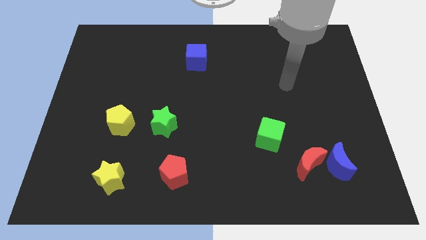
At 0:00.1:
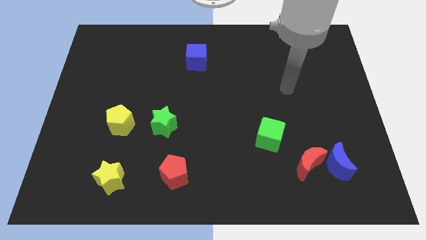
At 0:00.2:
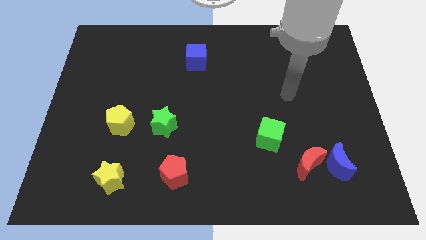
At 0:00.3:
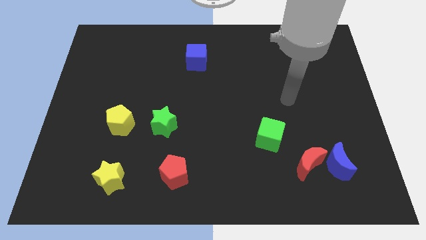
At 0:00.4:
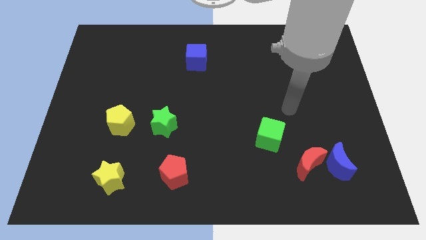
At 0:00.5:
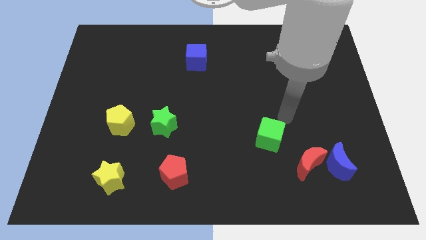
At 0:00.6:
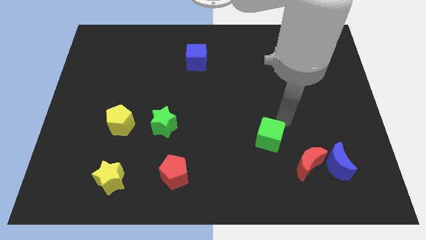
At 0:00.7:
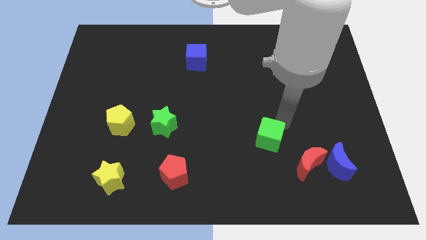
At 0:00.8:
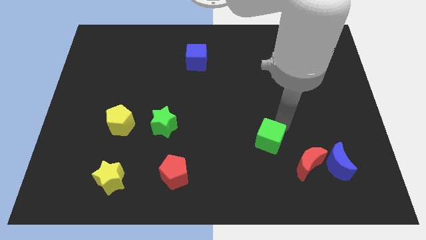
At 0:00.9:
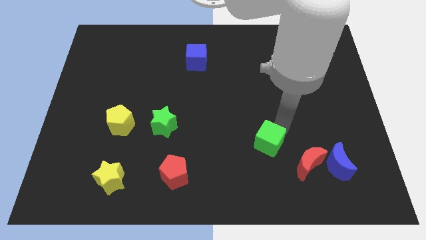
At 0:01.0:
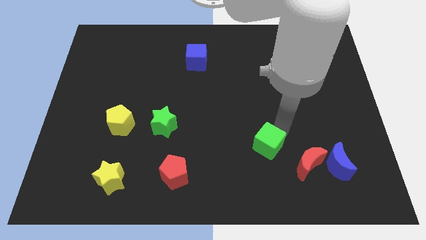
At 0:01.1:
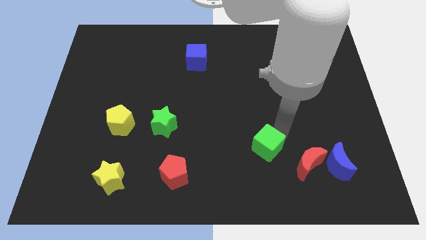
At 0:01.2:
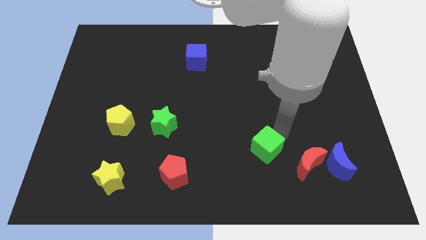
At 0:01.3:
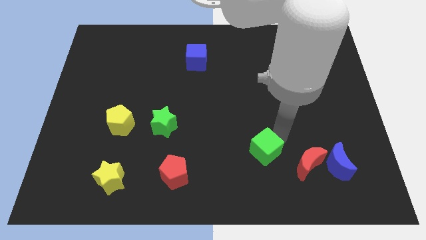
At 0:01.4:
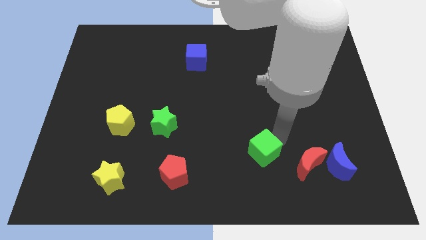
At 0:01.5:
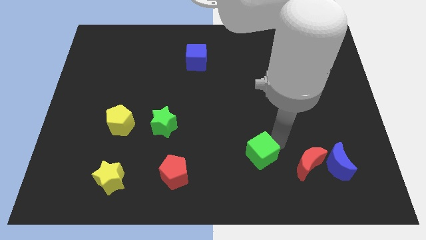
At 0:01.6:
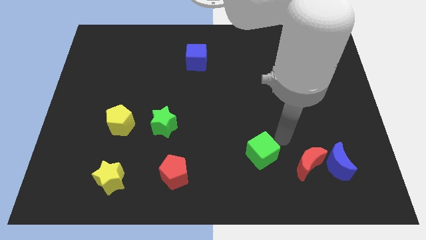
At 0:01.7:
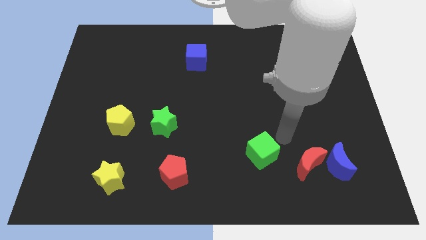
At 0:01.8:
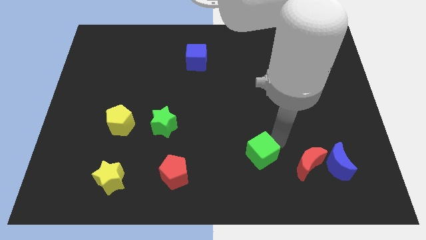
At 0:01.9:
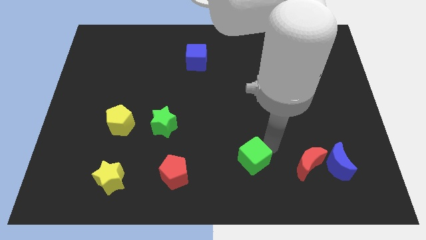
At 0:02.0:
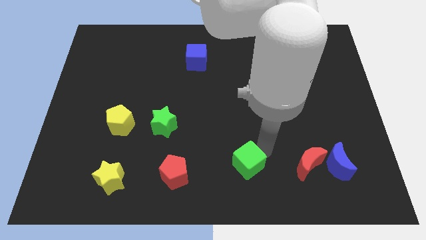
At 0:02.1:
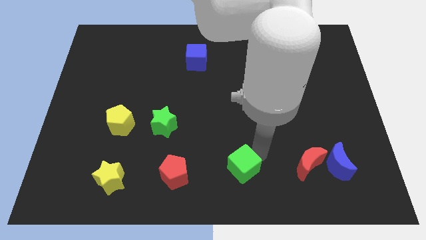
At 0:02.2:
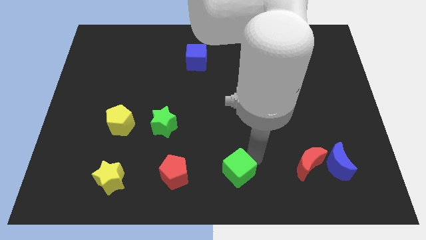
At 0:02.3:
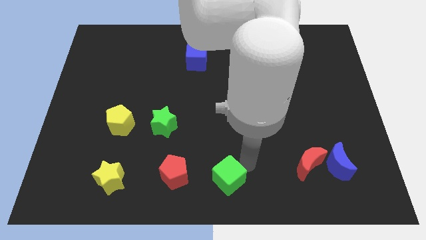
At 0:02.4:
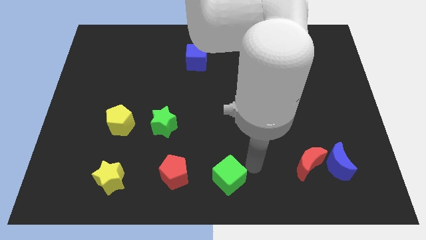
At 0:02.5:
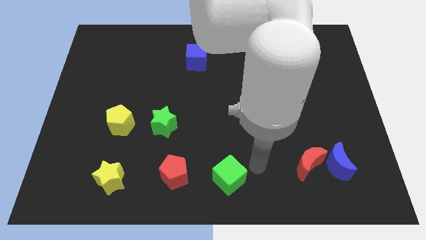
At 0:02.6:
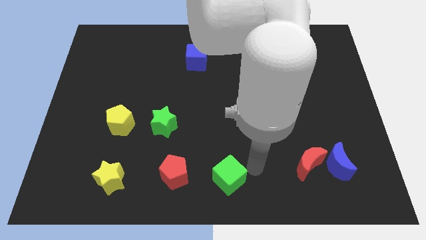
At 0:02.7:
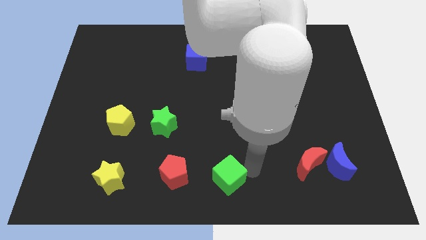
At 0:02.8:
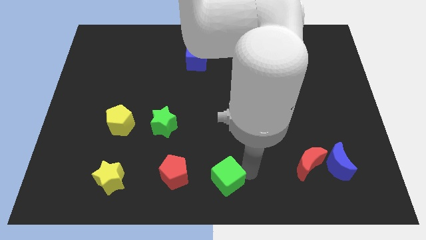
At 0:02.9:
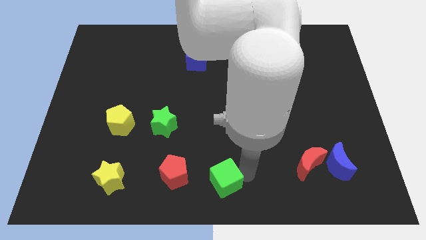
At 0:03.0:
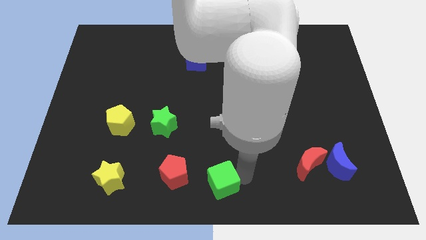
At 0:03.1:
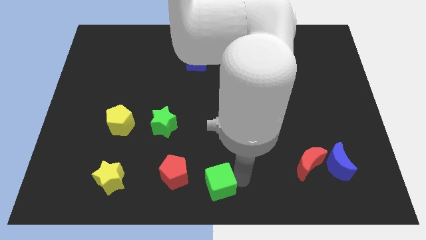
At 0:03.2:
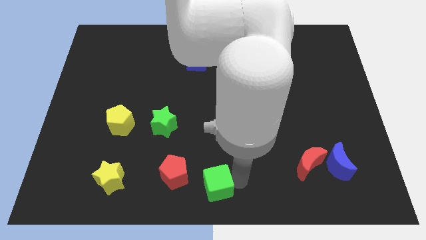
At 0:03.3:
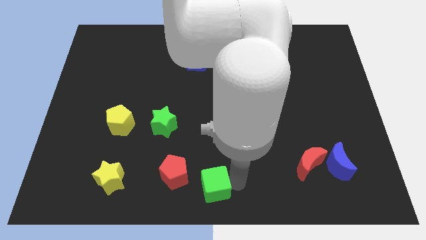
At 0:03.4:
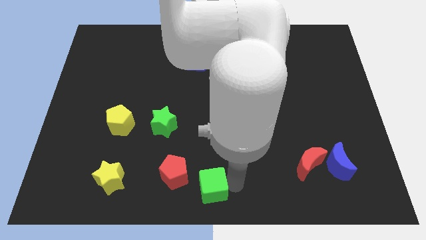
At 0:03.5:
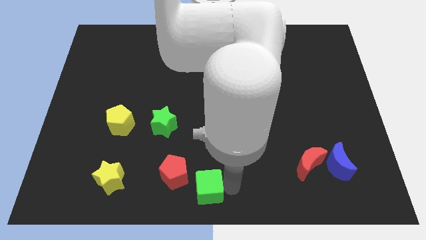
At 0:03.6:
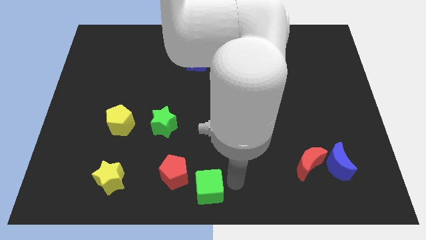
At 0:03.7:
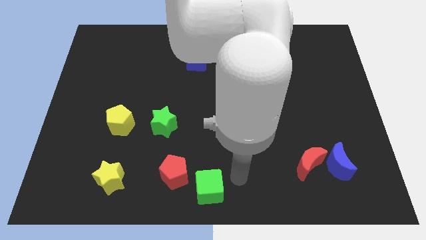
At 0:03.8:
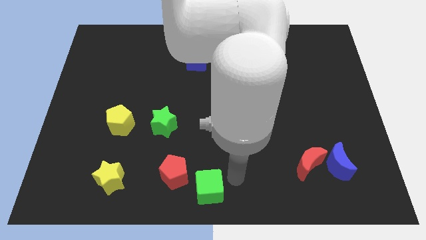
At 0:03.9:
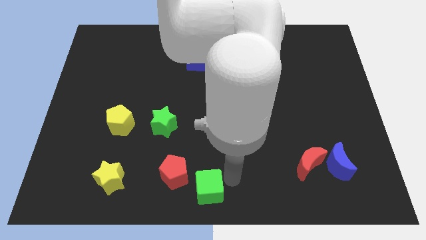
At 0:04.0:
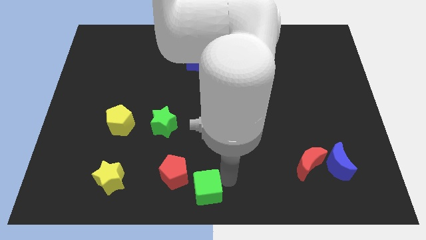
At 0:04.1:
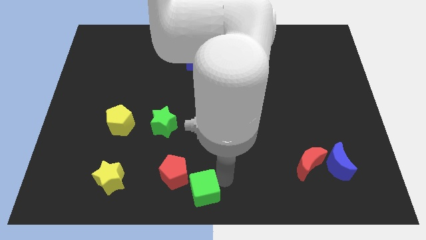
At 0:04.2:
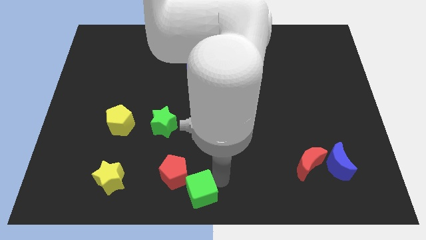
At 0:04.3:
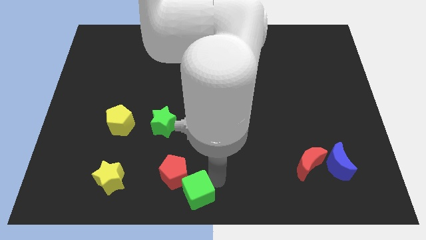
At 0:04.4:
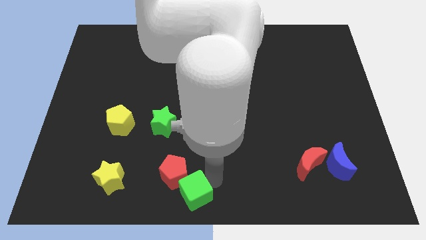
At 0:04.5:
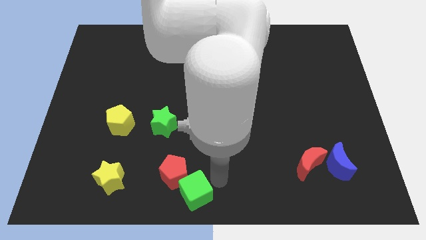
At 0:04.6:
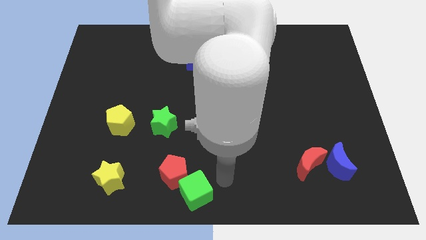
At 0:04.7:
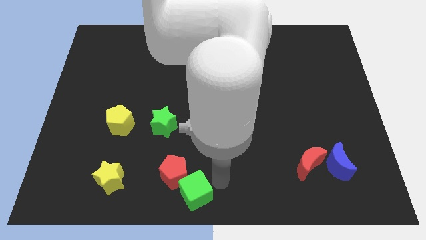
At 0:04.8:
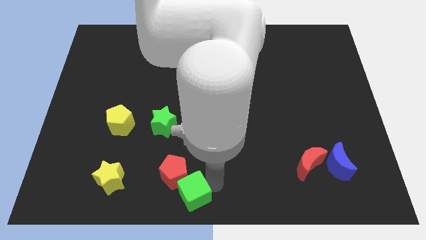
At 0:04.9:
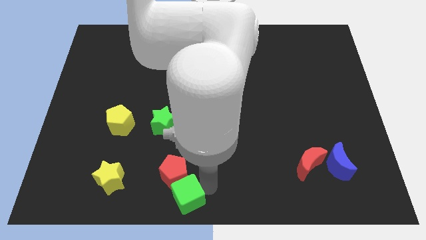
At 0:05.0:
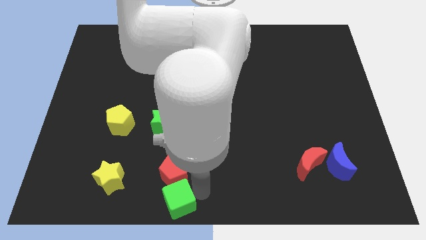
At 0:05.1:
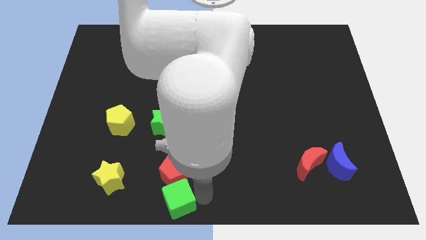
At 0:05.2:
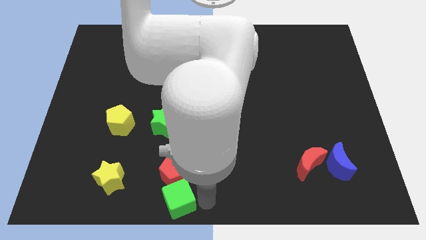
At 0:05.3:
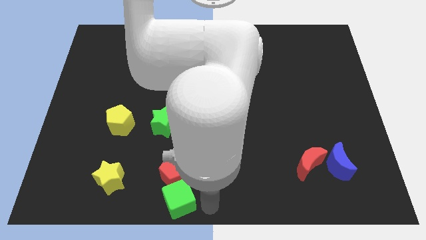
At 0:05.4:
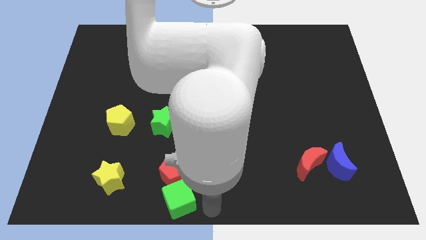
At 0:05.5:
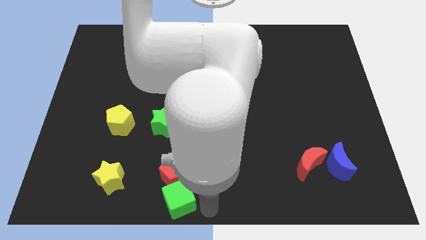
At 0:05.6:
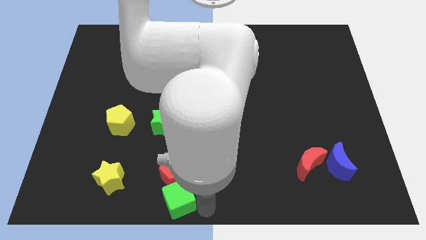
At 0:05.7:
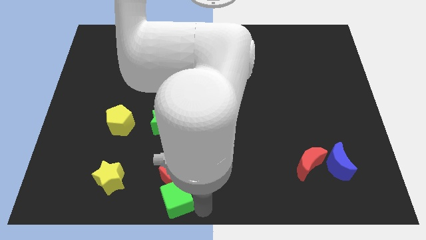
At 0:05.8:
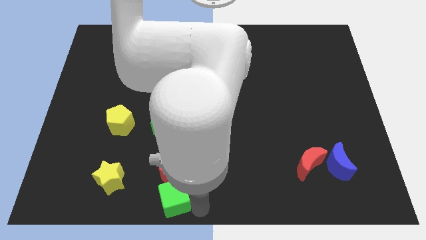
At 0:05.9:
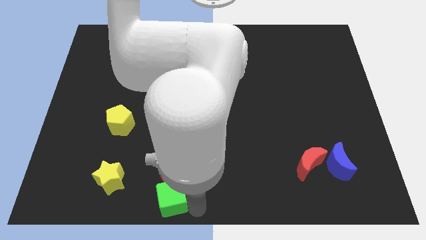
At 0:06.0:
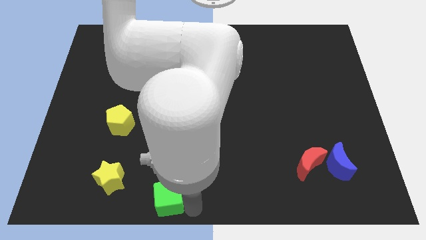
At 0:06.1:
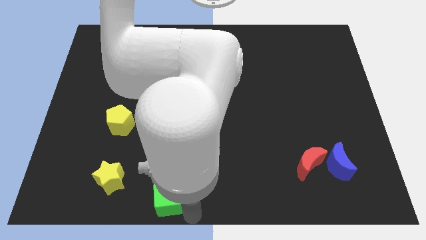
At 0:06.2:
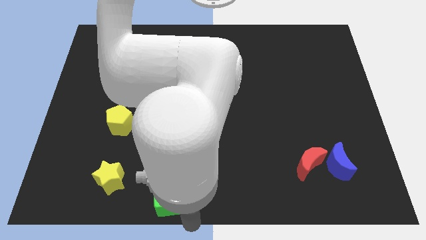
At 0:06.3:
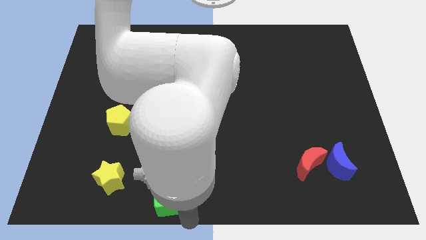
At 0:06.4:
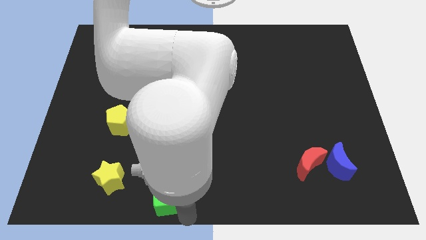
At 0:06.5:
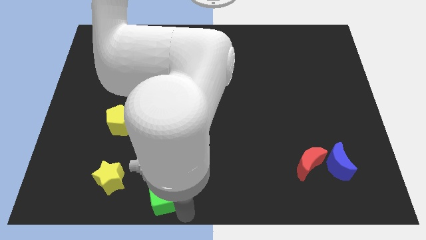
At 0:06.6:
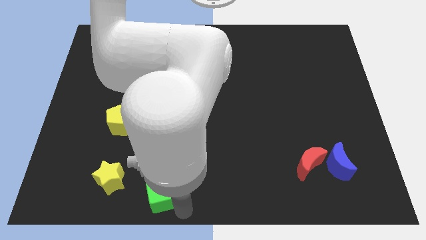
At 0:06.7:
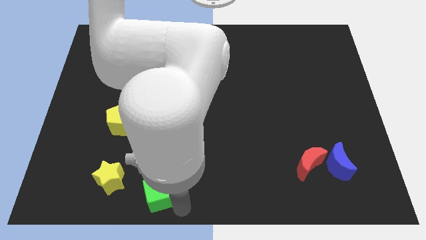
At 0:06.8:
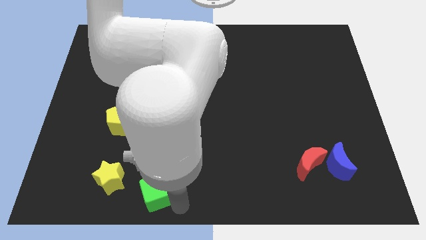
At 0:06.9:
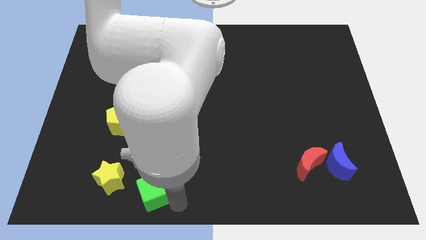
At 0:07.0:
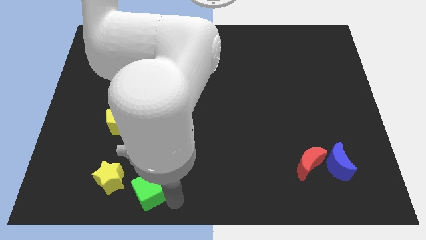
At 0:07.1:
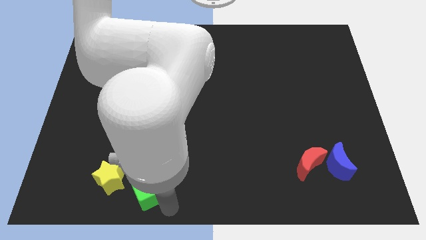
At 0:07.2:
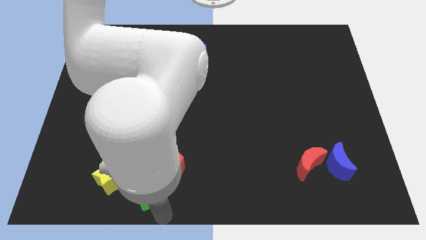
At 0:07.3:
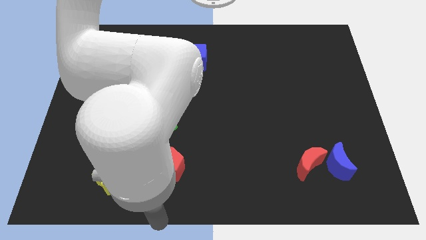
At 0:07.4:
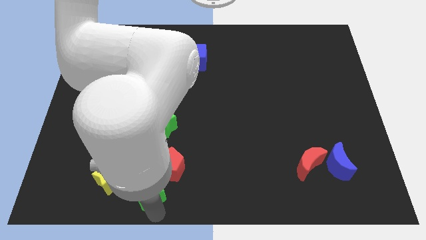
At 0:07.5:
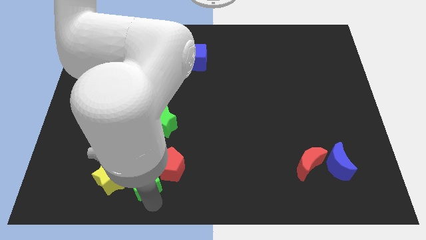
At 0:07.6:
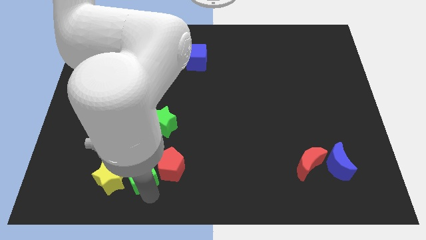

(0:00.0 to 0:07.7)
put the green cube diagonally up and to the right of the yellow star

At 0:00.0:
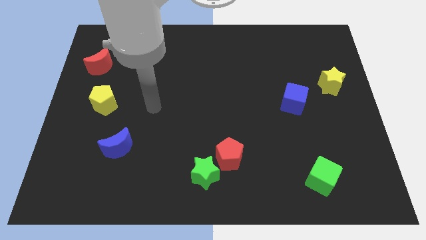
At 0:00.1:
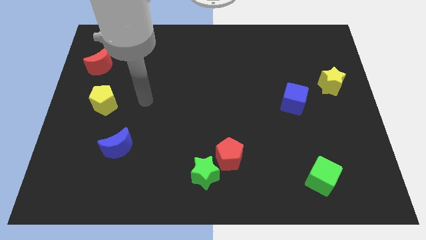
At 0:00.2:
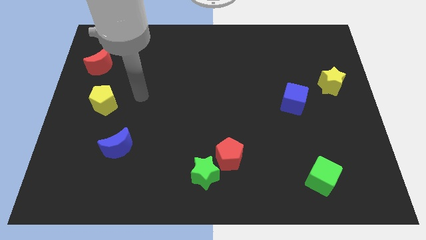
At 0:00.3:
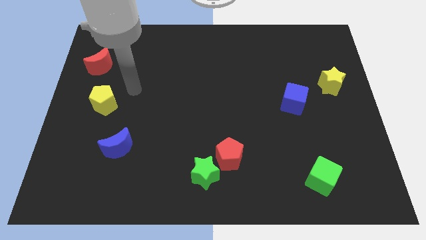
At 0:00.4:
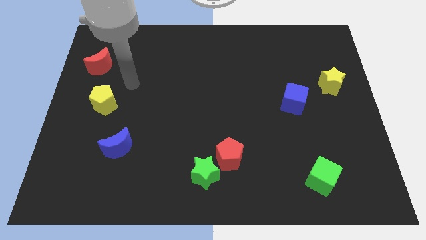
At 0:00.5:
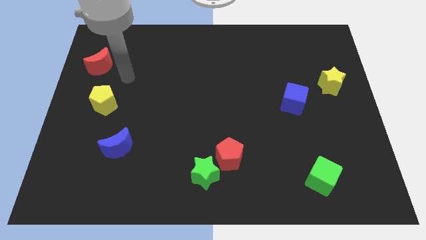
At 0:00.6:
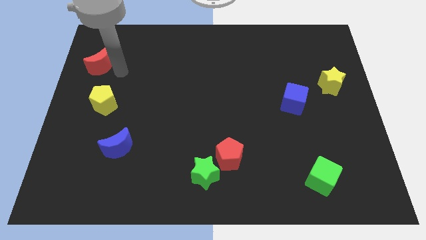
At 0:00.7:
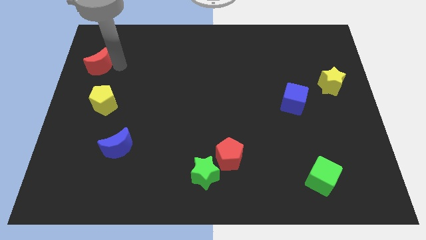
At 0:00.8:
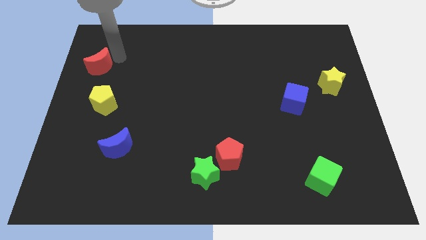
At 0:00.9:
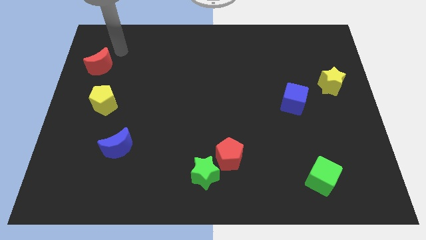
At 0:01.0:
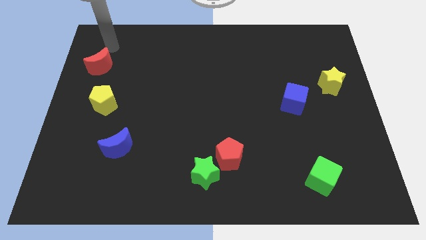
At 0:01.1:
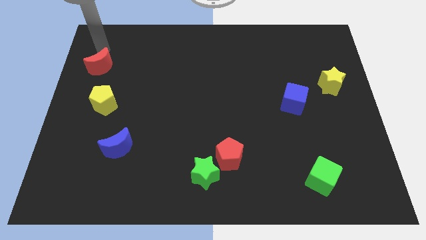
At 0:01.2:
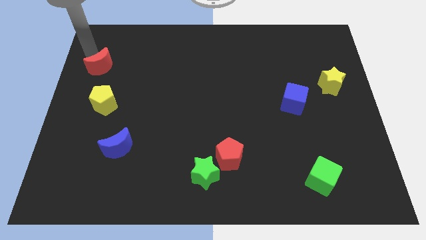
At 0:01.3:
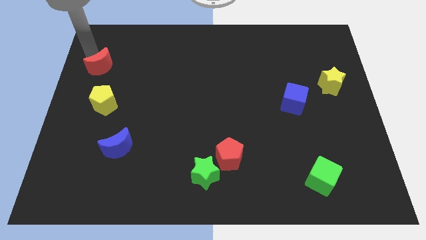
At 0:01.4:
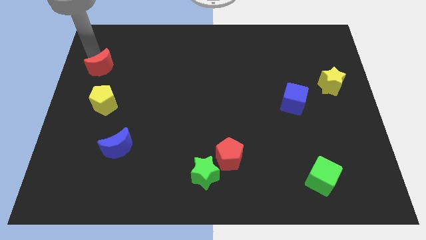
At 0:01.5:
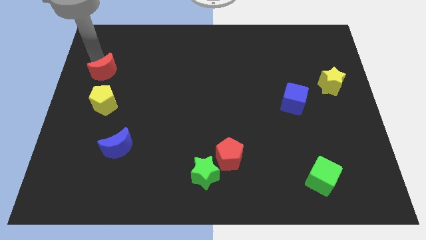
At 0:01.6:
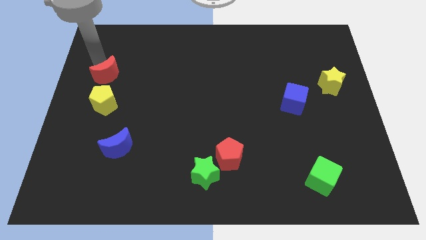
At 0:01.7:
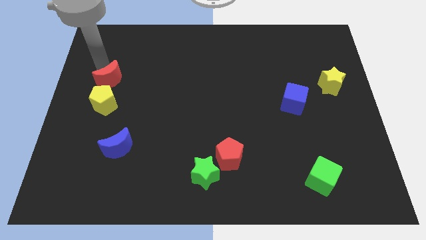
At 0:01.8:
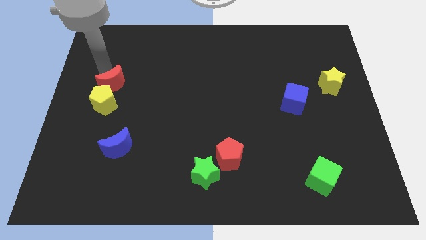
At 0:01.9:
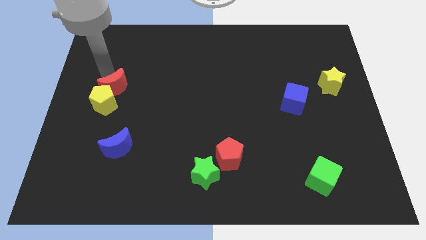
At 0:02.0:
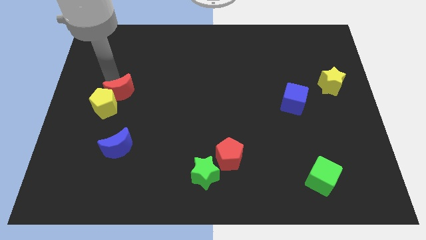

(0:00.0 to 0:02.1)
slide the red moon to the top side of the blue moon
